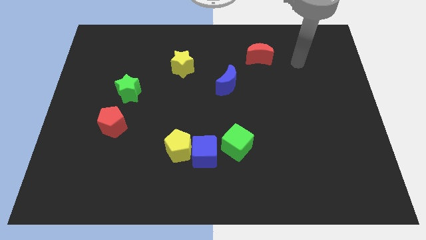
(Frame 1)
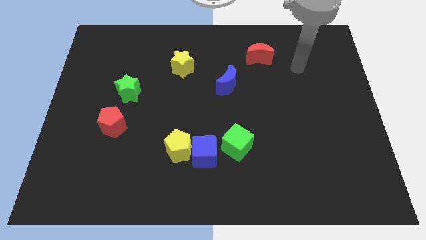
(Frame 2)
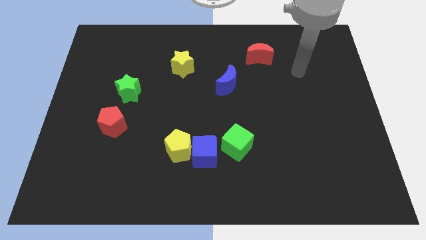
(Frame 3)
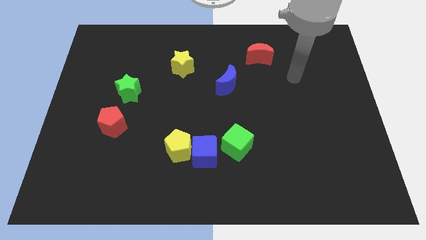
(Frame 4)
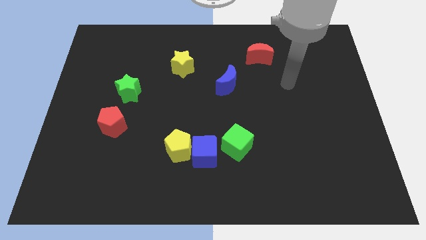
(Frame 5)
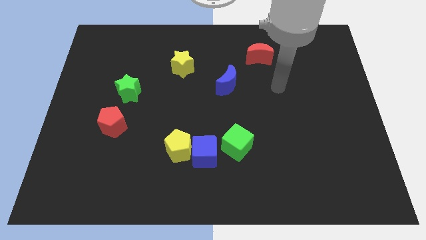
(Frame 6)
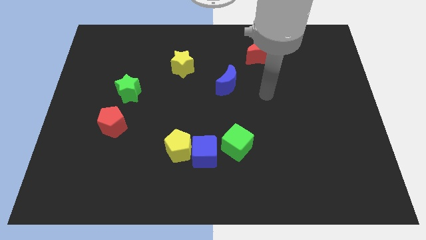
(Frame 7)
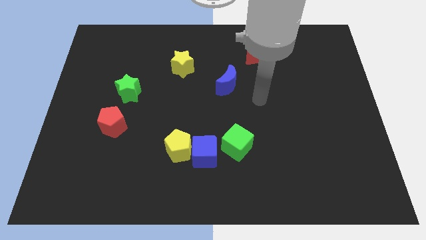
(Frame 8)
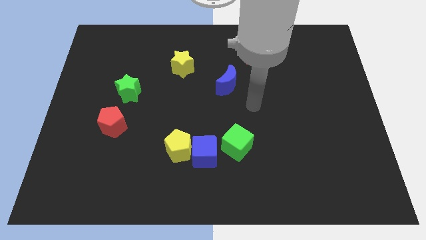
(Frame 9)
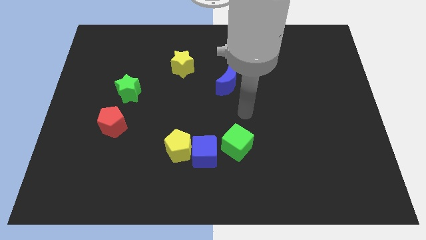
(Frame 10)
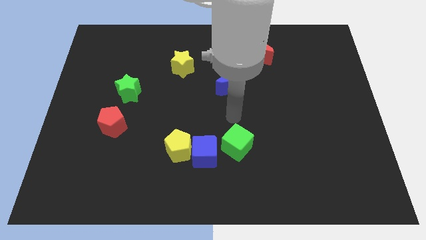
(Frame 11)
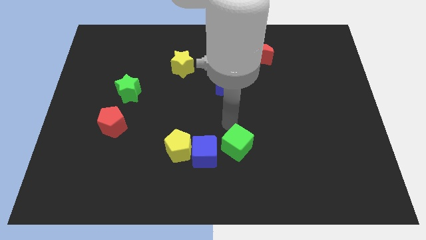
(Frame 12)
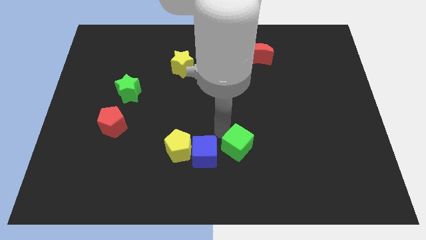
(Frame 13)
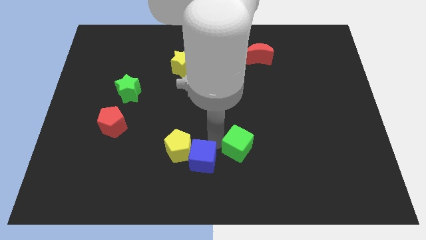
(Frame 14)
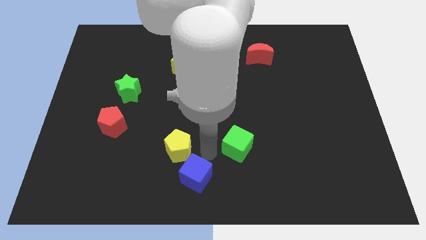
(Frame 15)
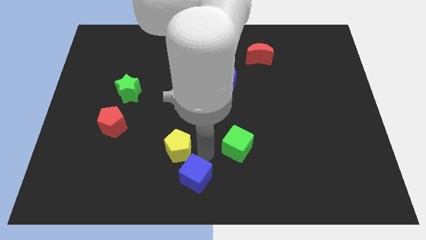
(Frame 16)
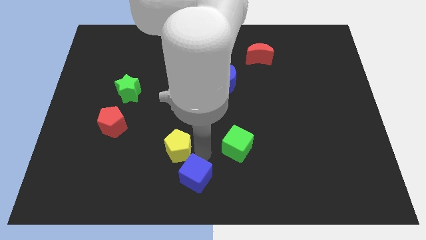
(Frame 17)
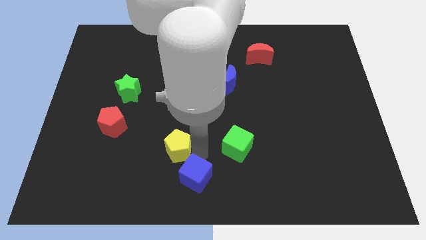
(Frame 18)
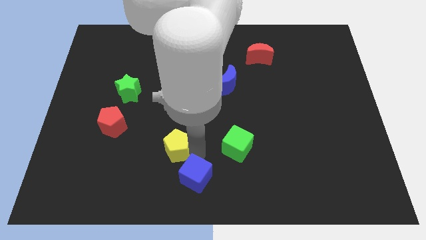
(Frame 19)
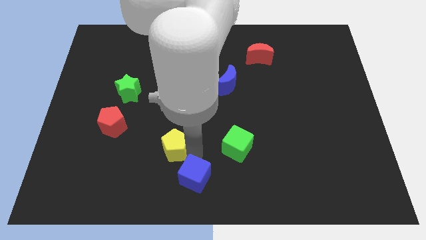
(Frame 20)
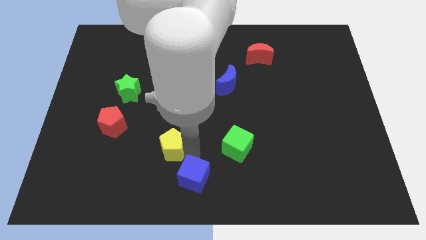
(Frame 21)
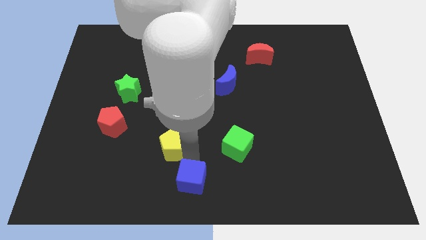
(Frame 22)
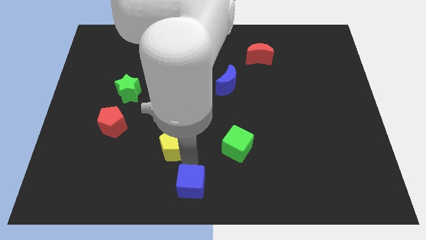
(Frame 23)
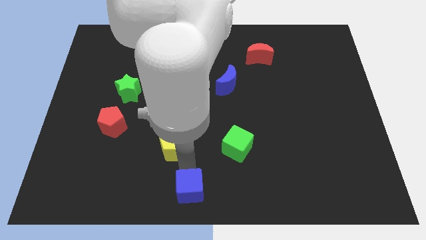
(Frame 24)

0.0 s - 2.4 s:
pull the yellow pentagon apart from the blue cube

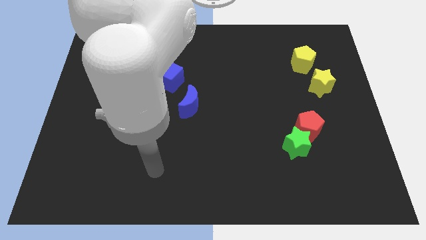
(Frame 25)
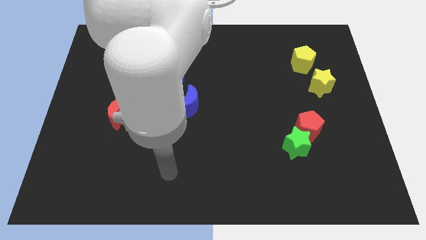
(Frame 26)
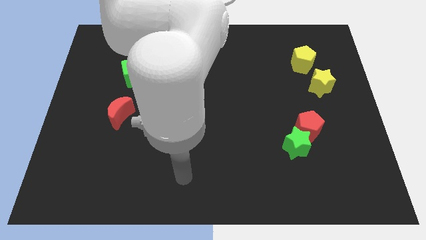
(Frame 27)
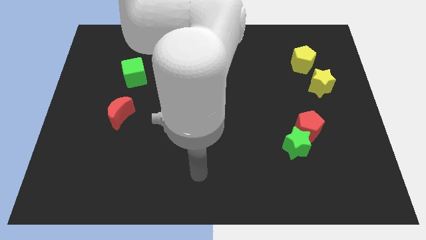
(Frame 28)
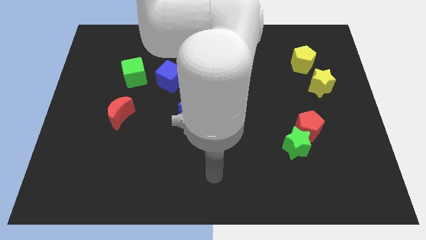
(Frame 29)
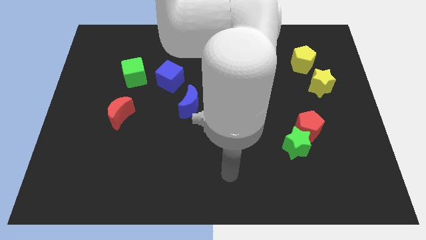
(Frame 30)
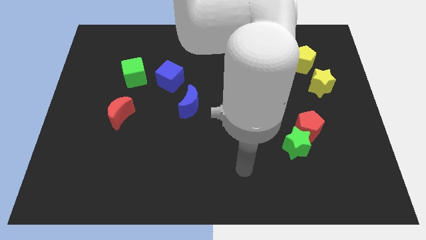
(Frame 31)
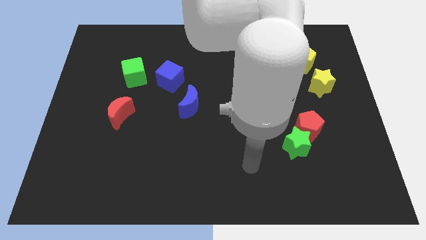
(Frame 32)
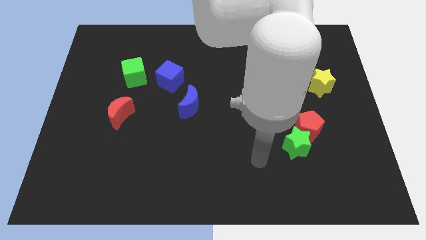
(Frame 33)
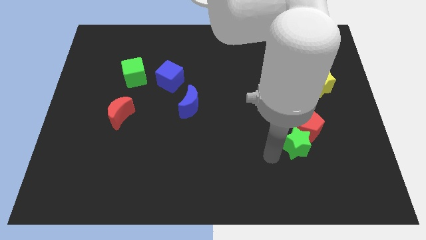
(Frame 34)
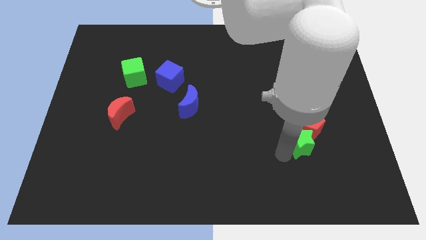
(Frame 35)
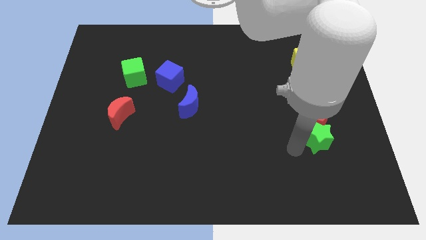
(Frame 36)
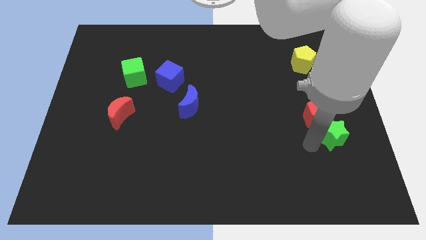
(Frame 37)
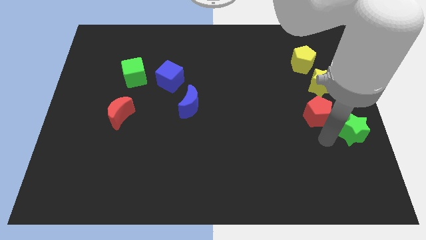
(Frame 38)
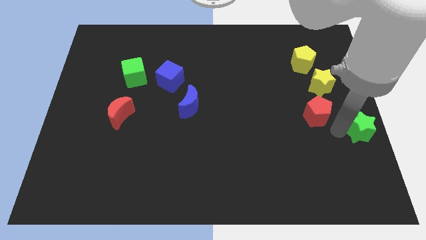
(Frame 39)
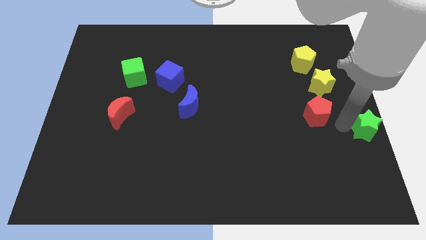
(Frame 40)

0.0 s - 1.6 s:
separate the red pentagon from the green star

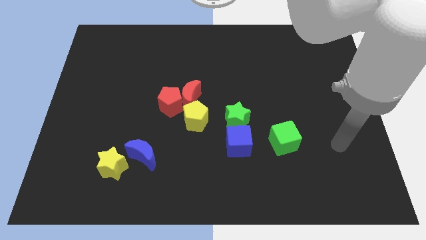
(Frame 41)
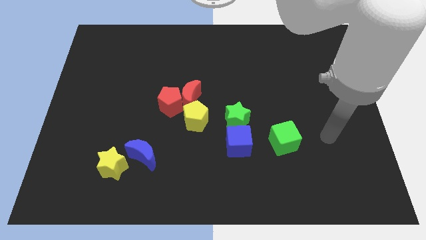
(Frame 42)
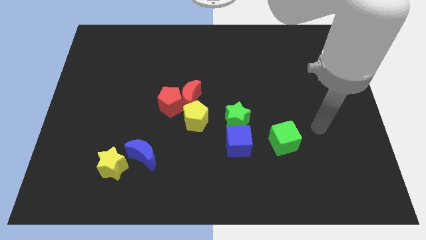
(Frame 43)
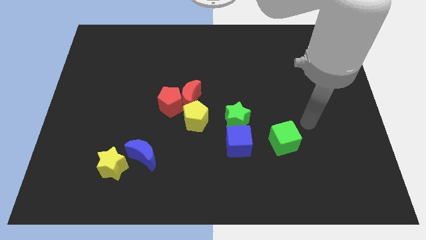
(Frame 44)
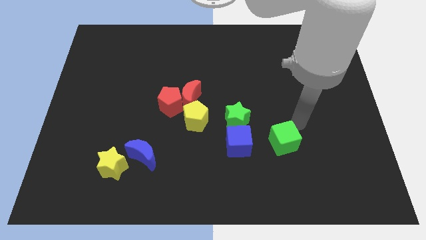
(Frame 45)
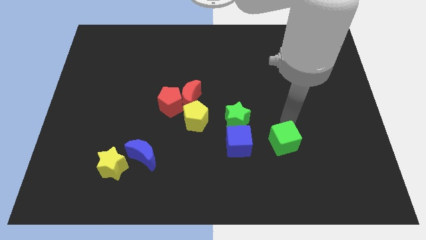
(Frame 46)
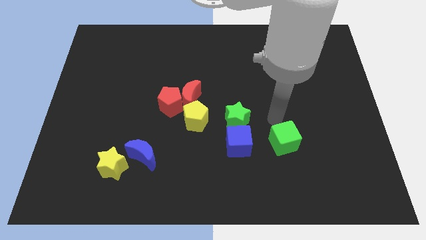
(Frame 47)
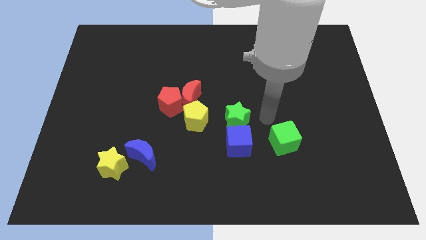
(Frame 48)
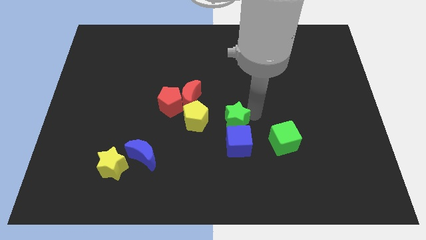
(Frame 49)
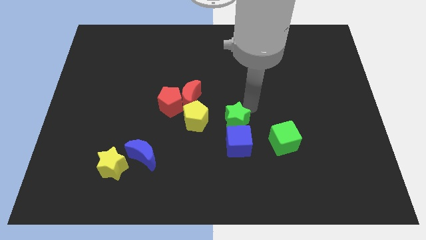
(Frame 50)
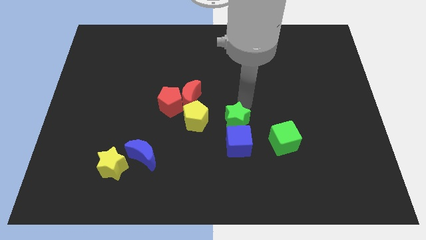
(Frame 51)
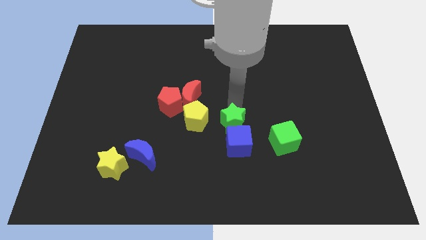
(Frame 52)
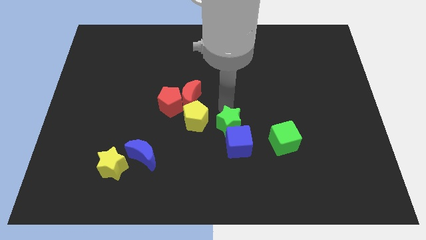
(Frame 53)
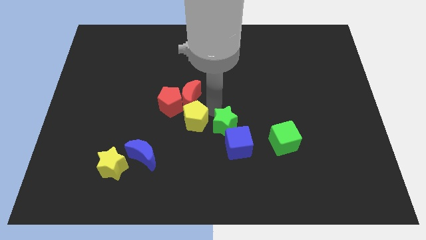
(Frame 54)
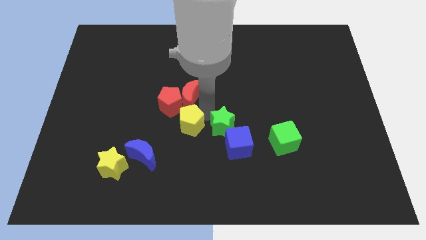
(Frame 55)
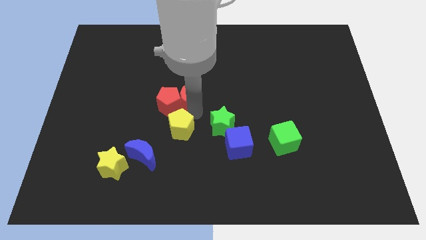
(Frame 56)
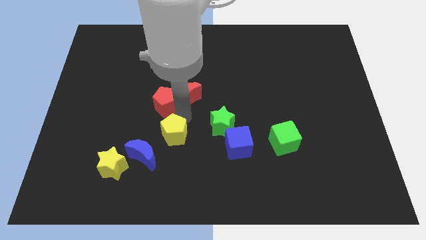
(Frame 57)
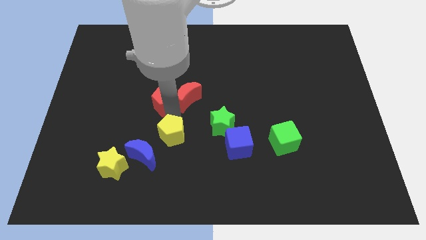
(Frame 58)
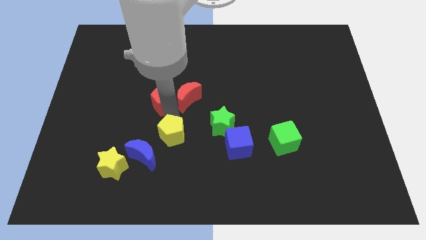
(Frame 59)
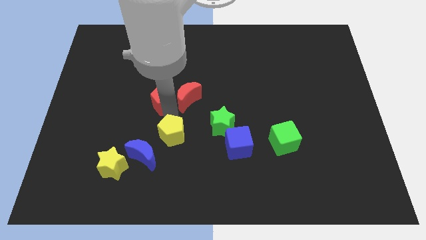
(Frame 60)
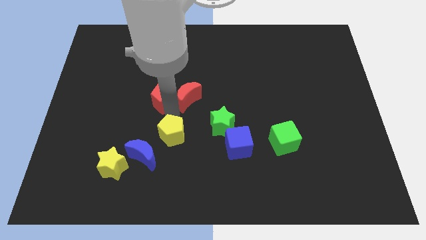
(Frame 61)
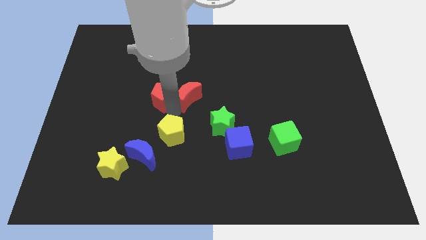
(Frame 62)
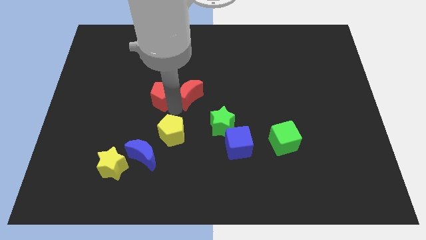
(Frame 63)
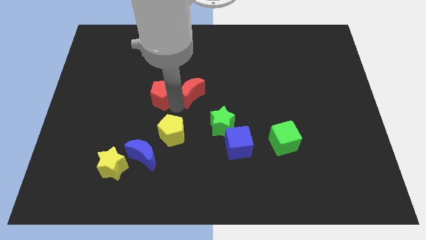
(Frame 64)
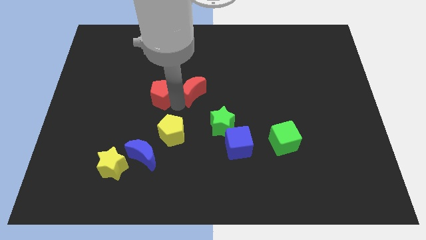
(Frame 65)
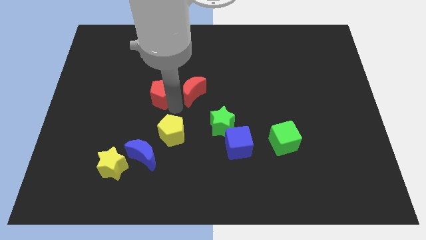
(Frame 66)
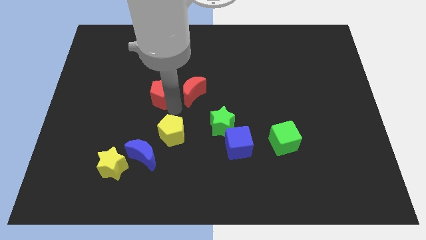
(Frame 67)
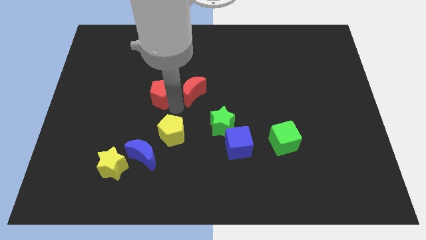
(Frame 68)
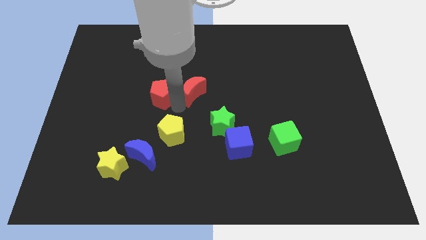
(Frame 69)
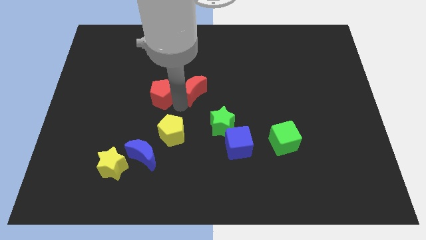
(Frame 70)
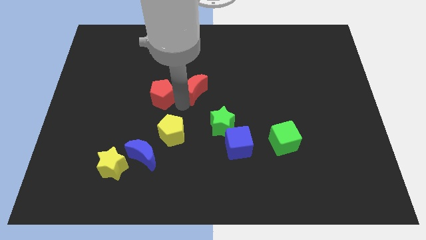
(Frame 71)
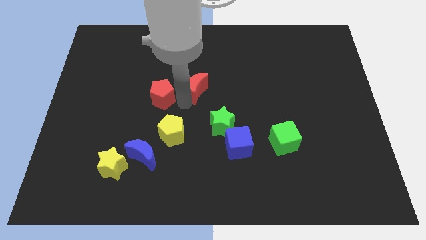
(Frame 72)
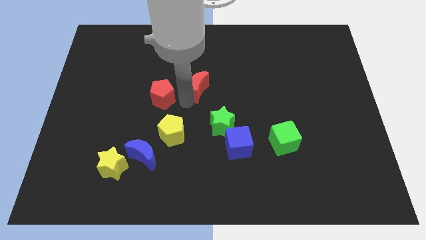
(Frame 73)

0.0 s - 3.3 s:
separate the red moon from the red pentagon and yellow pentagon

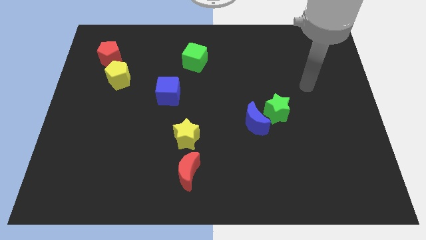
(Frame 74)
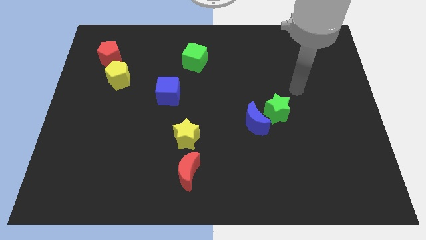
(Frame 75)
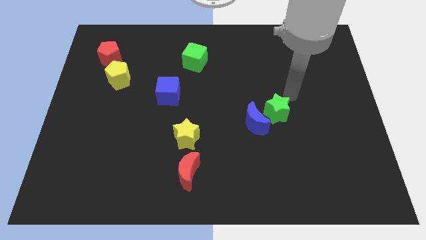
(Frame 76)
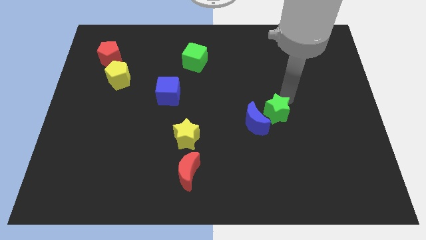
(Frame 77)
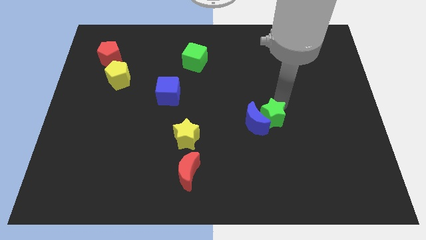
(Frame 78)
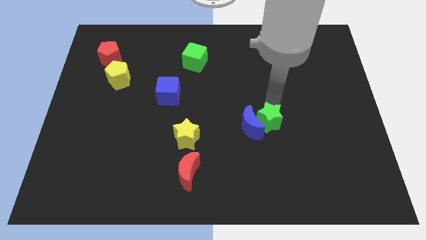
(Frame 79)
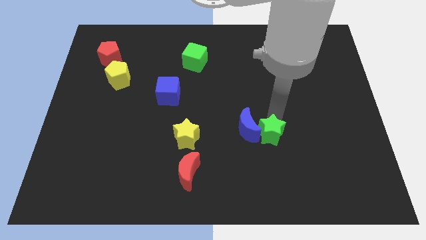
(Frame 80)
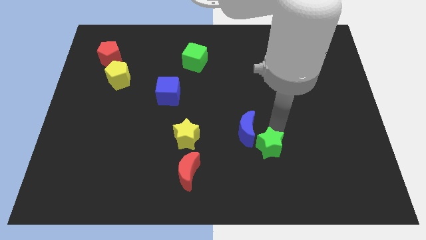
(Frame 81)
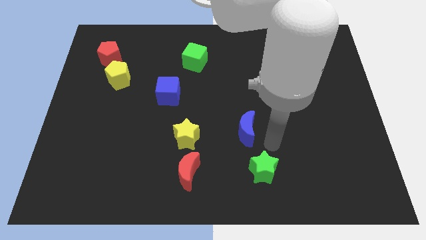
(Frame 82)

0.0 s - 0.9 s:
move the blue moon away from the green star

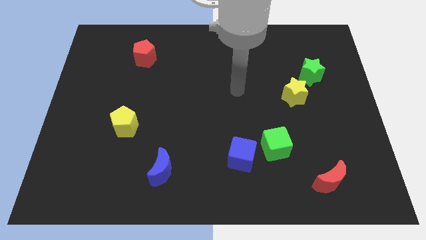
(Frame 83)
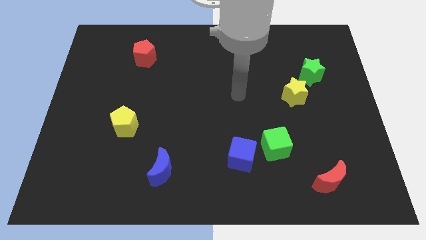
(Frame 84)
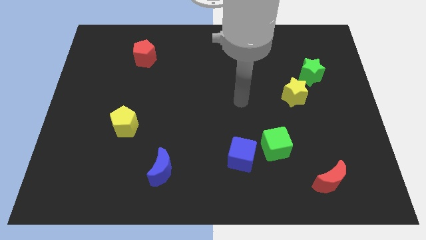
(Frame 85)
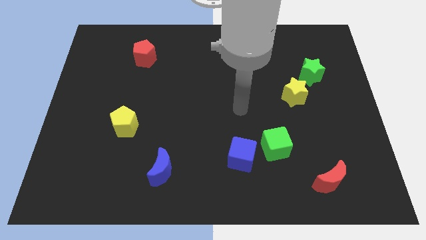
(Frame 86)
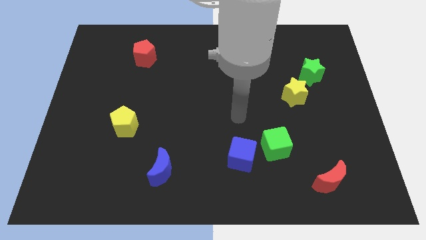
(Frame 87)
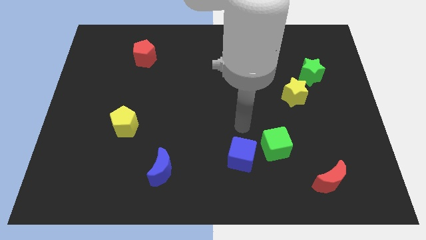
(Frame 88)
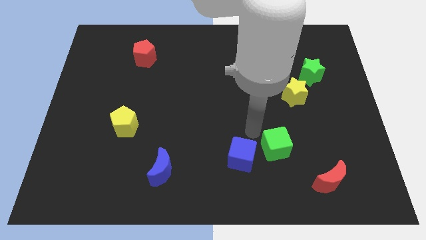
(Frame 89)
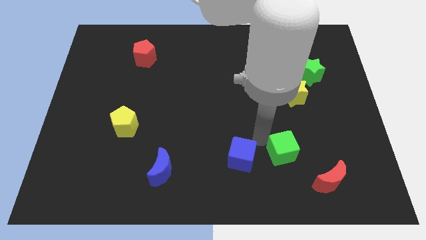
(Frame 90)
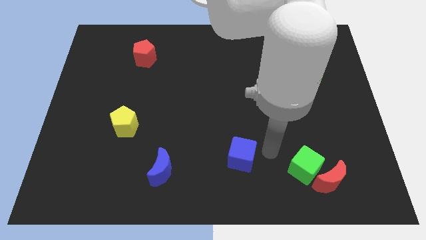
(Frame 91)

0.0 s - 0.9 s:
move the blue cube away from the green cube

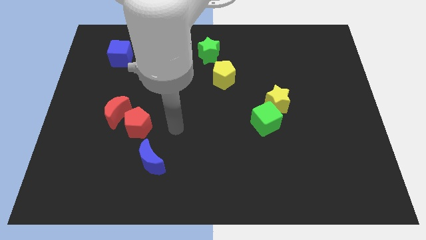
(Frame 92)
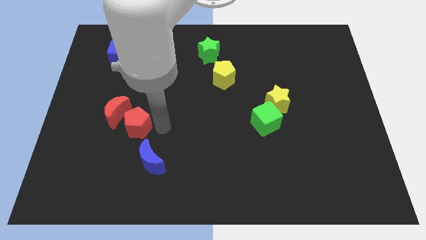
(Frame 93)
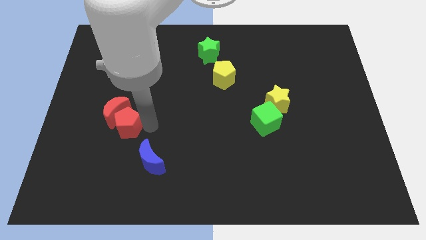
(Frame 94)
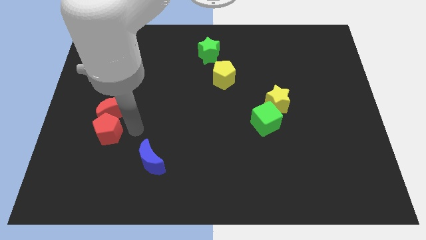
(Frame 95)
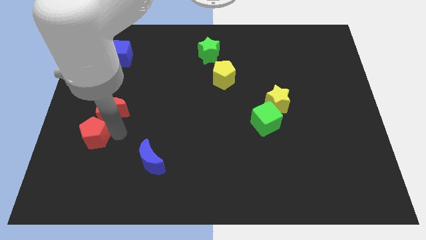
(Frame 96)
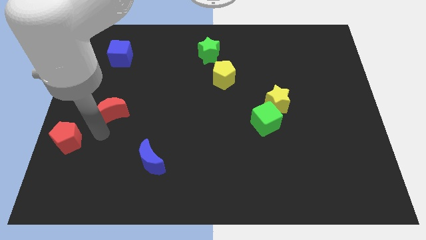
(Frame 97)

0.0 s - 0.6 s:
pull the red moon apart from the red pentagon
